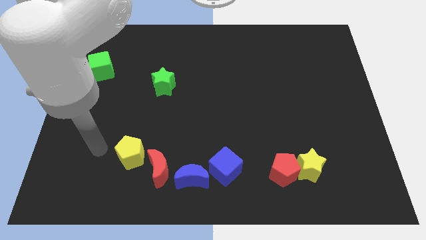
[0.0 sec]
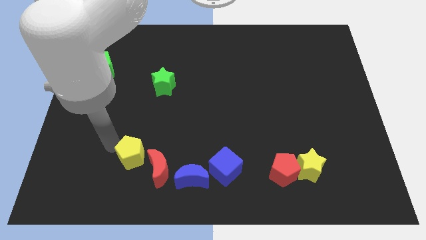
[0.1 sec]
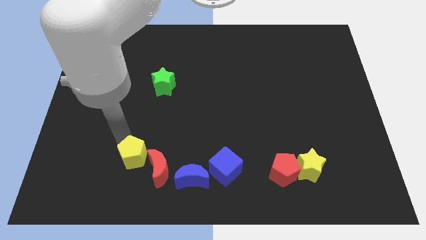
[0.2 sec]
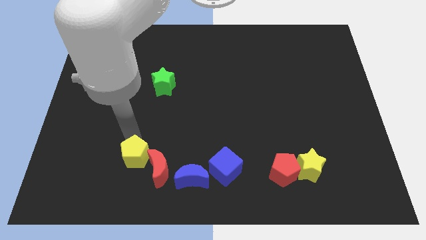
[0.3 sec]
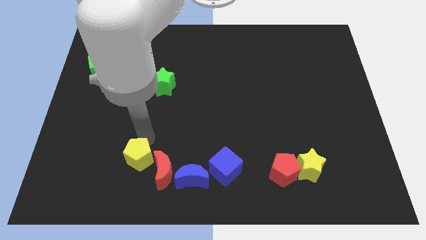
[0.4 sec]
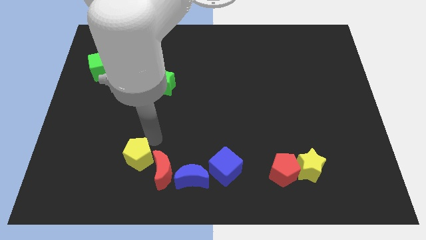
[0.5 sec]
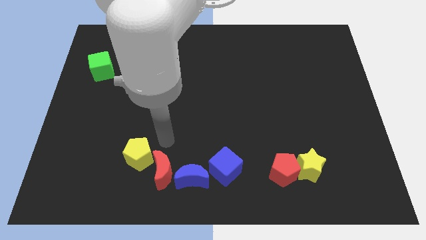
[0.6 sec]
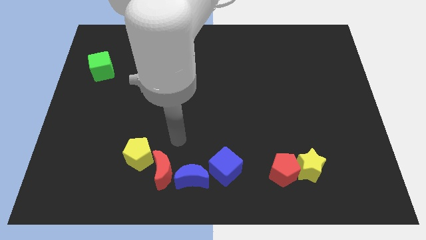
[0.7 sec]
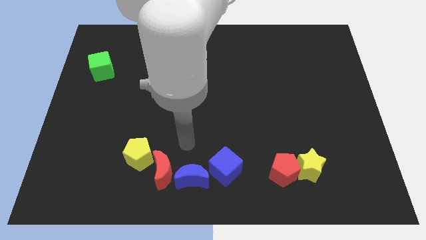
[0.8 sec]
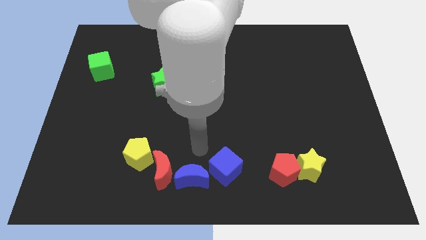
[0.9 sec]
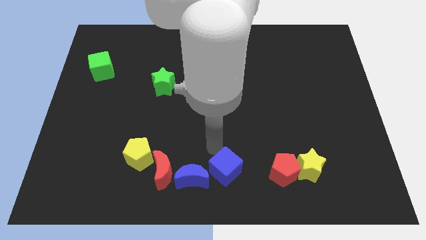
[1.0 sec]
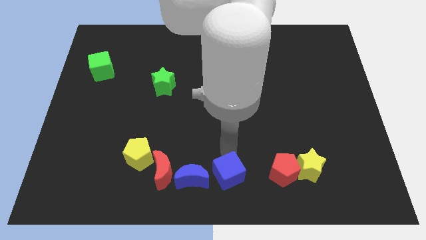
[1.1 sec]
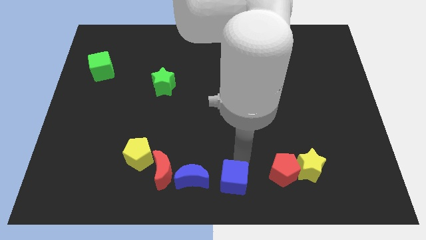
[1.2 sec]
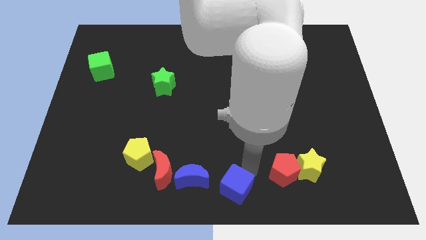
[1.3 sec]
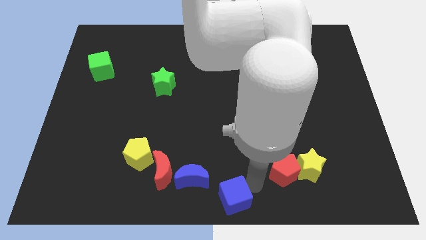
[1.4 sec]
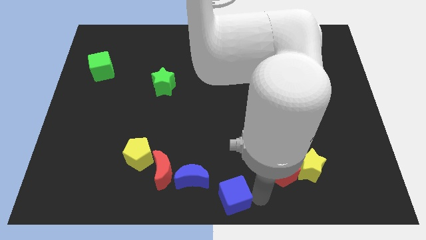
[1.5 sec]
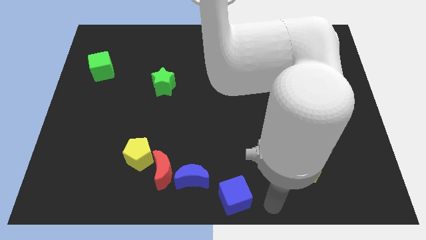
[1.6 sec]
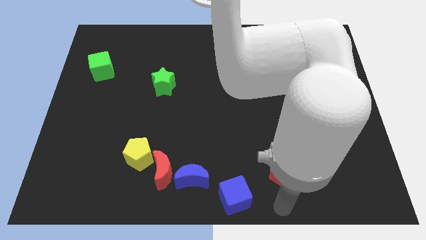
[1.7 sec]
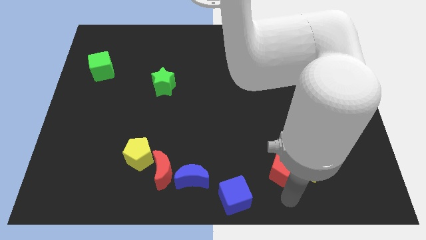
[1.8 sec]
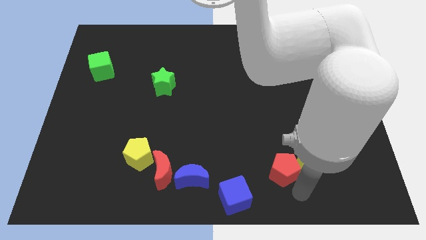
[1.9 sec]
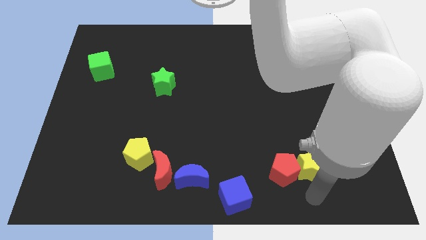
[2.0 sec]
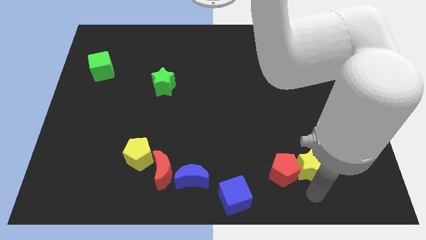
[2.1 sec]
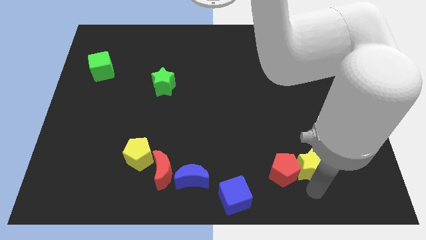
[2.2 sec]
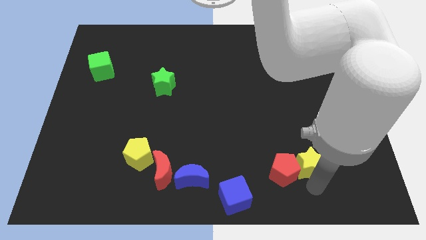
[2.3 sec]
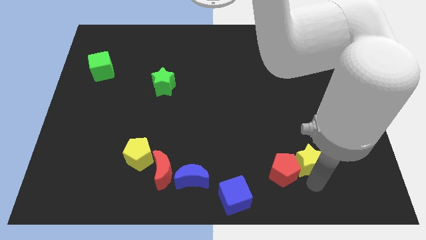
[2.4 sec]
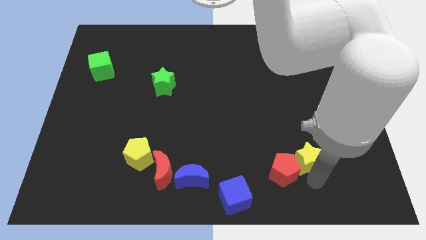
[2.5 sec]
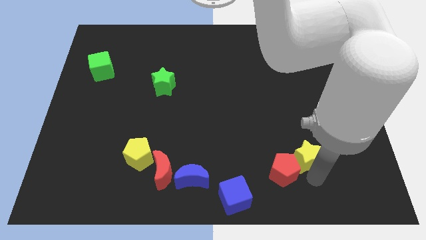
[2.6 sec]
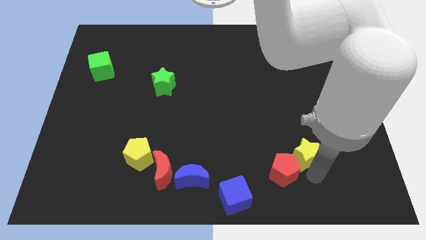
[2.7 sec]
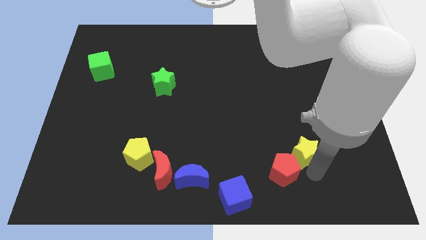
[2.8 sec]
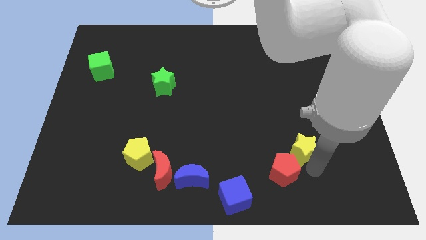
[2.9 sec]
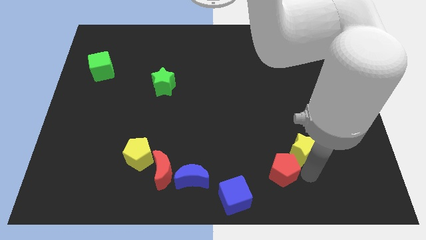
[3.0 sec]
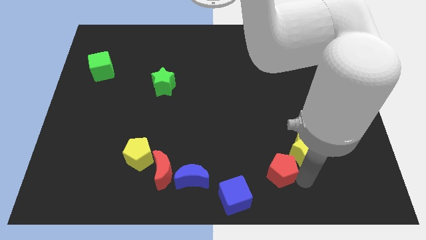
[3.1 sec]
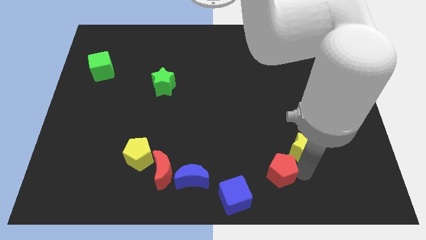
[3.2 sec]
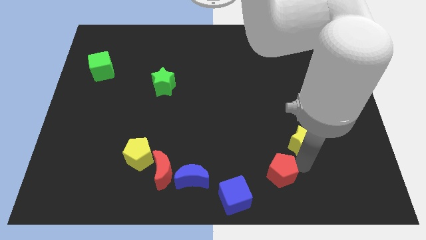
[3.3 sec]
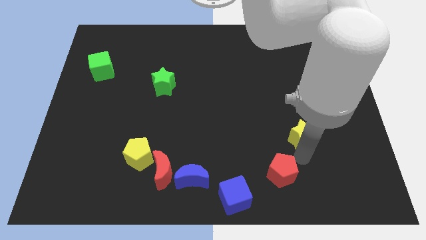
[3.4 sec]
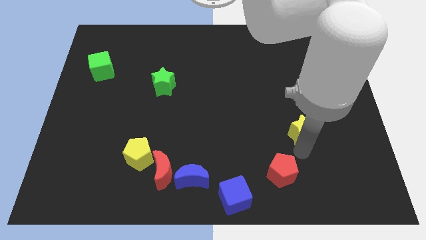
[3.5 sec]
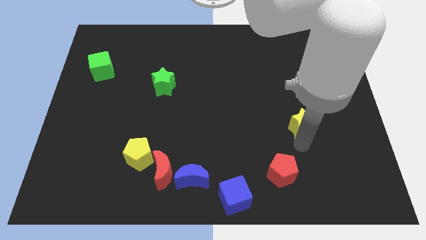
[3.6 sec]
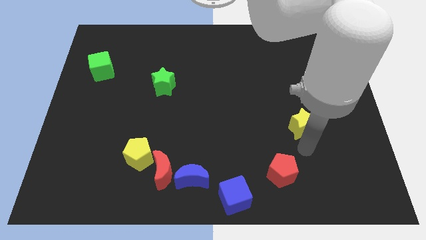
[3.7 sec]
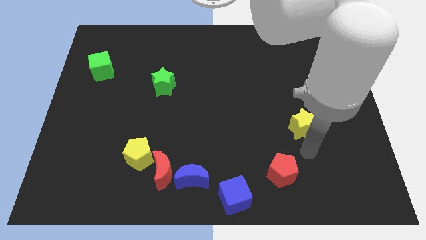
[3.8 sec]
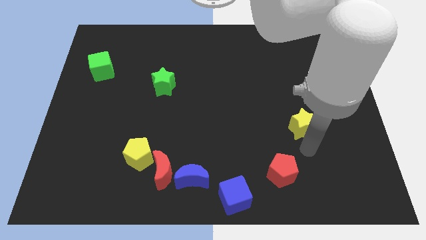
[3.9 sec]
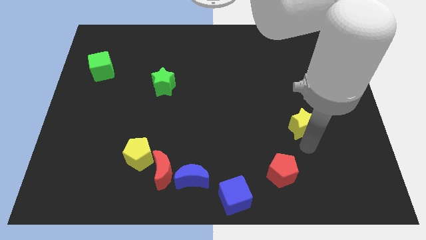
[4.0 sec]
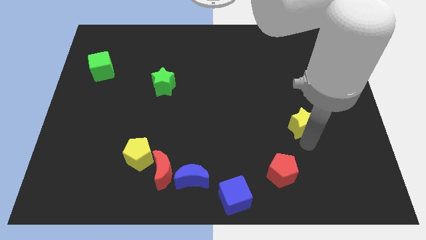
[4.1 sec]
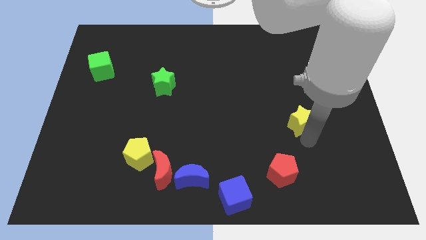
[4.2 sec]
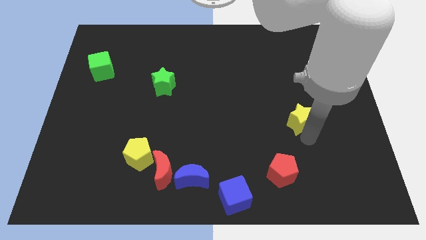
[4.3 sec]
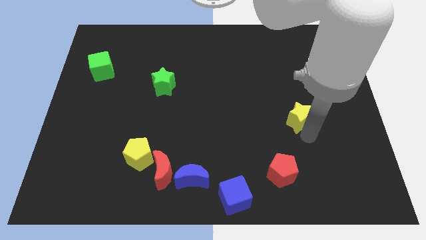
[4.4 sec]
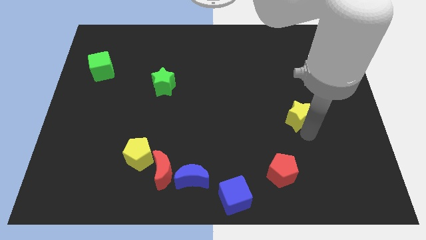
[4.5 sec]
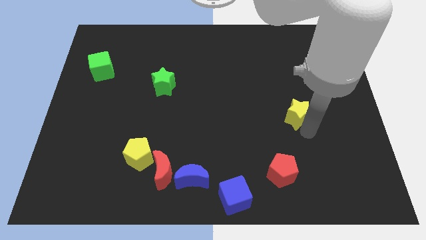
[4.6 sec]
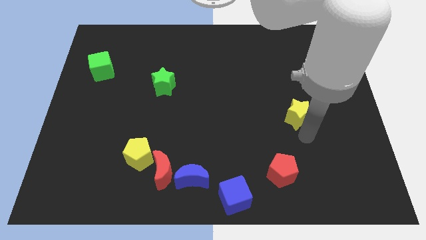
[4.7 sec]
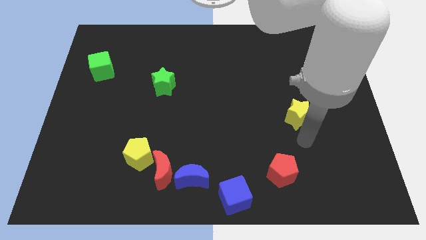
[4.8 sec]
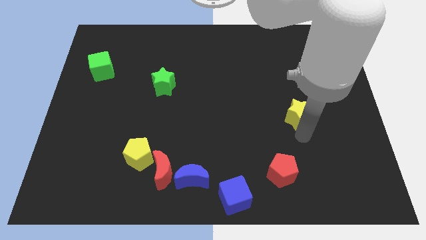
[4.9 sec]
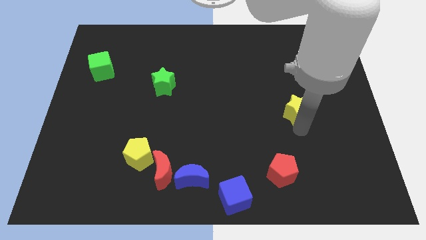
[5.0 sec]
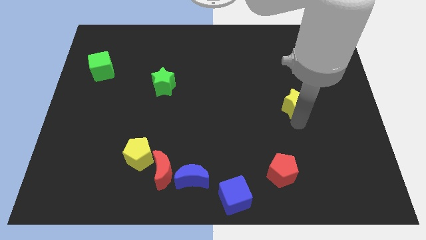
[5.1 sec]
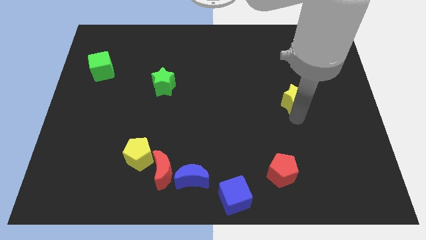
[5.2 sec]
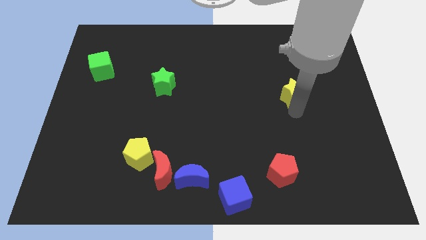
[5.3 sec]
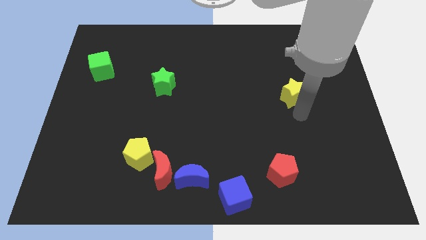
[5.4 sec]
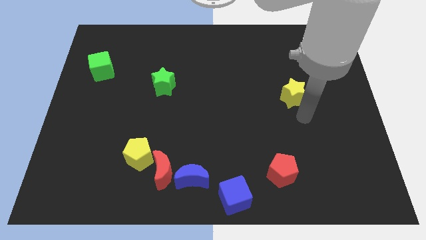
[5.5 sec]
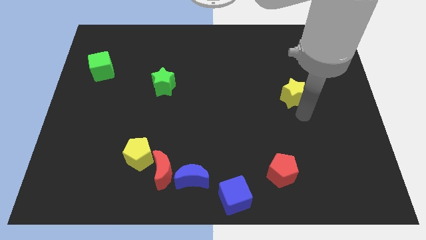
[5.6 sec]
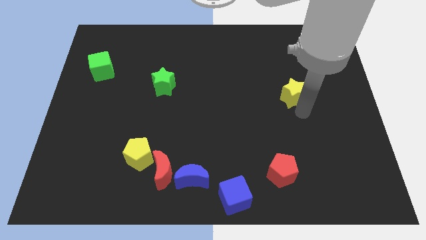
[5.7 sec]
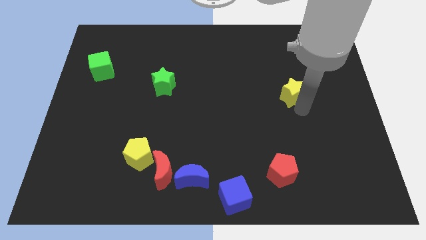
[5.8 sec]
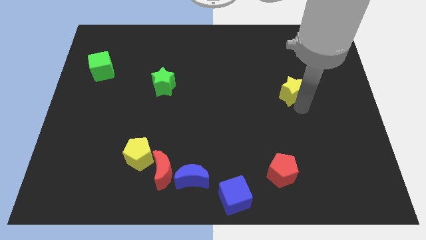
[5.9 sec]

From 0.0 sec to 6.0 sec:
move the yellow star upwards

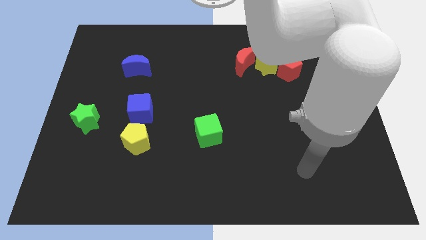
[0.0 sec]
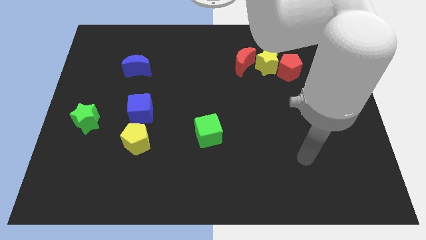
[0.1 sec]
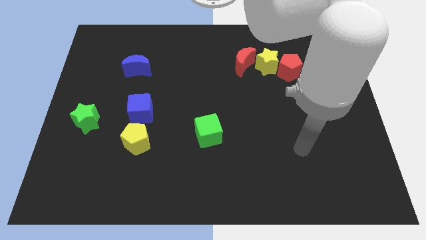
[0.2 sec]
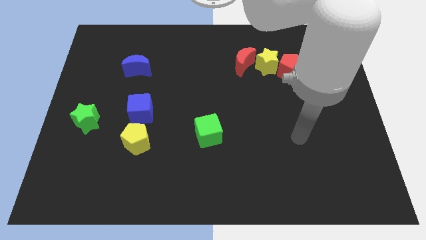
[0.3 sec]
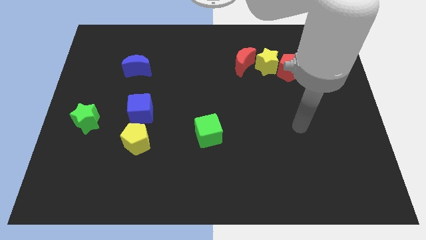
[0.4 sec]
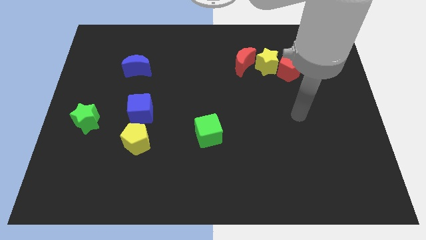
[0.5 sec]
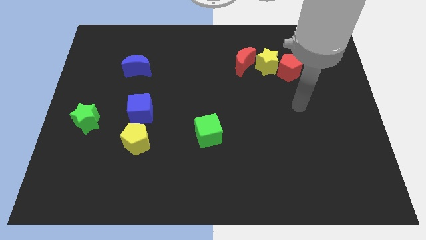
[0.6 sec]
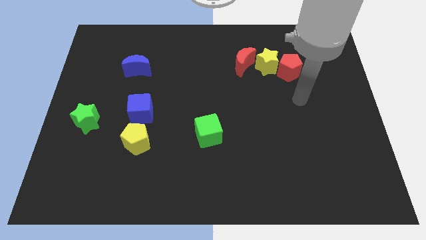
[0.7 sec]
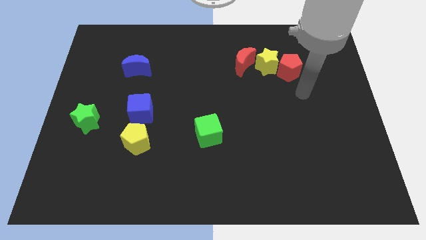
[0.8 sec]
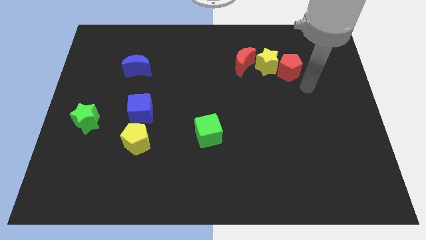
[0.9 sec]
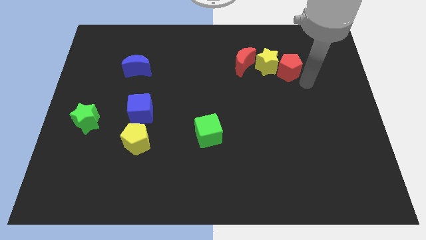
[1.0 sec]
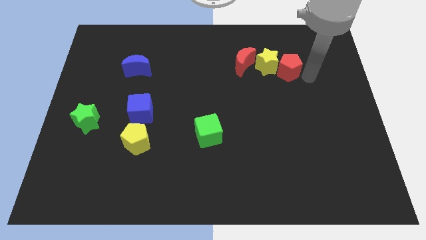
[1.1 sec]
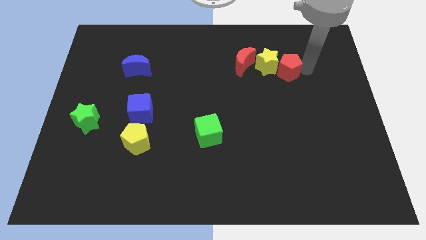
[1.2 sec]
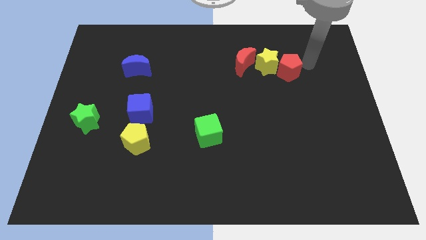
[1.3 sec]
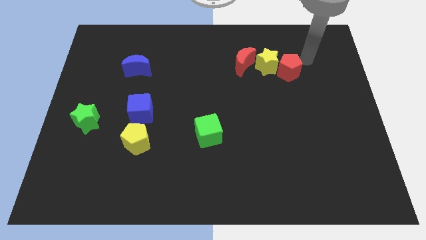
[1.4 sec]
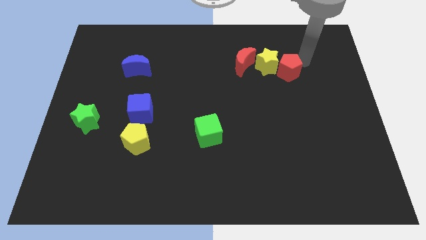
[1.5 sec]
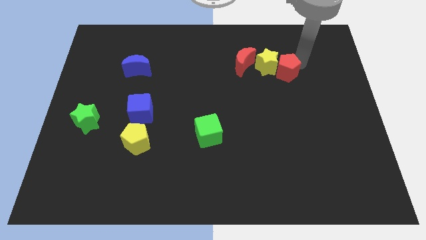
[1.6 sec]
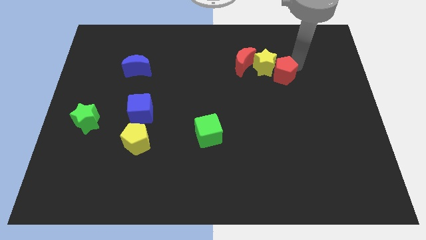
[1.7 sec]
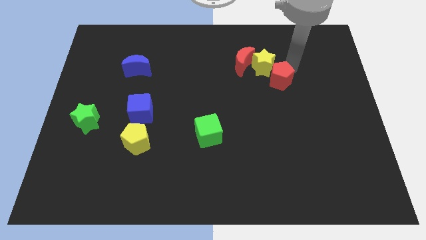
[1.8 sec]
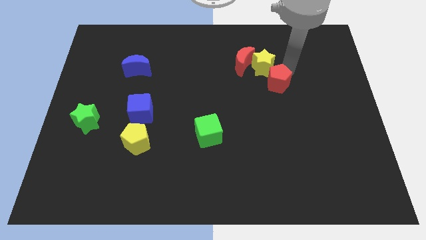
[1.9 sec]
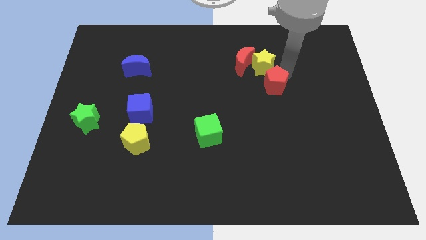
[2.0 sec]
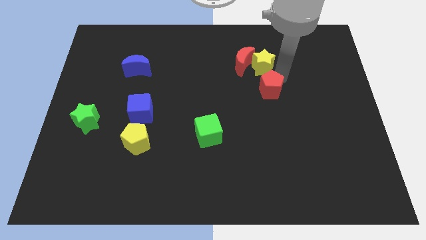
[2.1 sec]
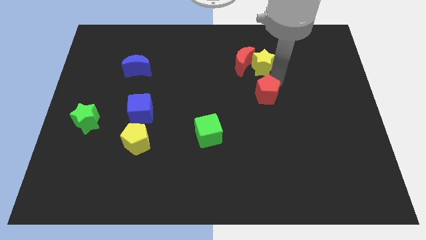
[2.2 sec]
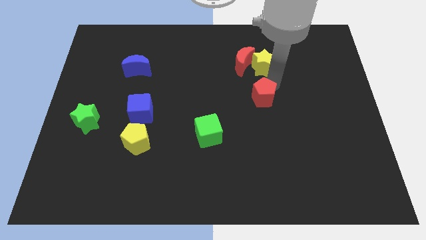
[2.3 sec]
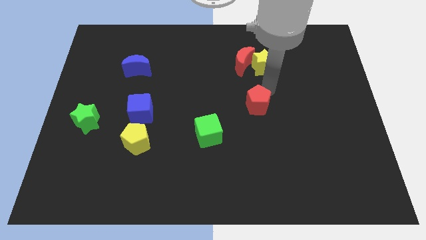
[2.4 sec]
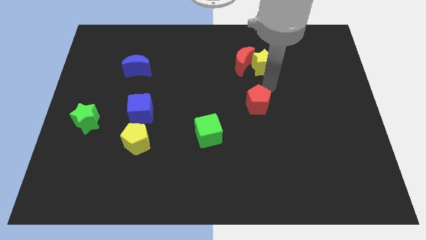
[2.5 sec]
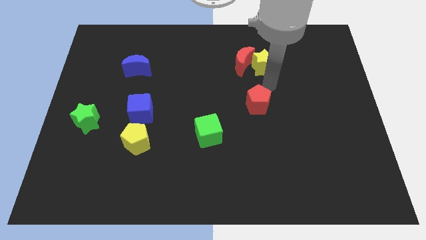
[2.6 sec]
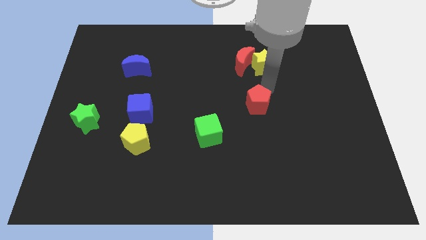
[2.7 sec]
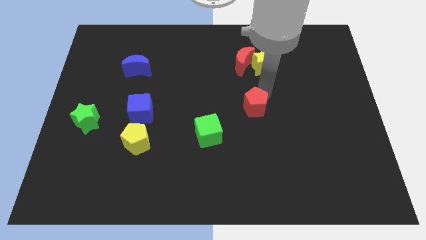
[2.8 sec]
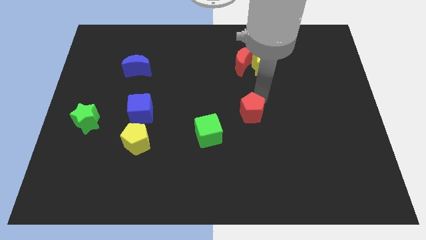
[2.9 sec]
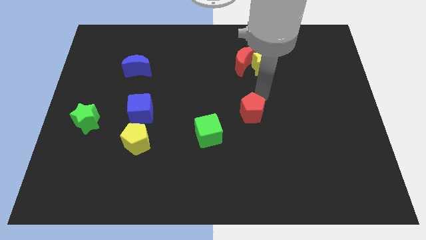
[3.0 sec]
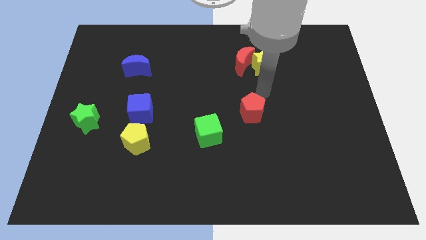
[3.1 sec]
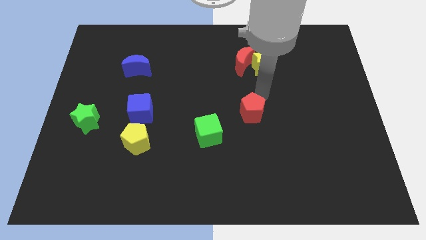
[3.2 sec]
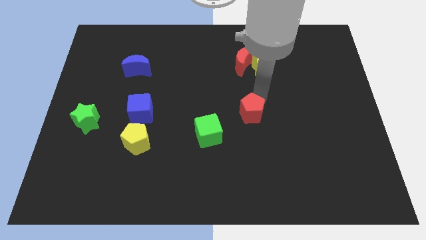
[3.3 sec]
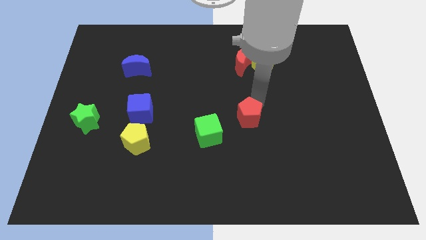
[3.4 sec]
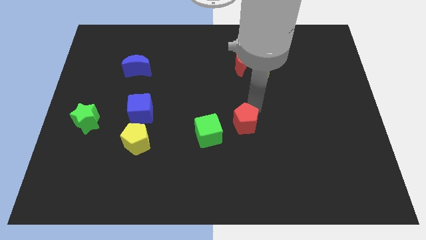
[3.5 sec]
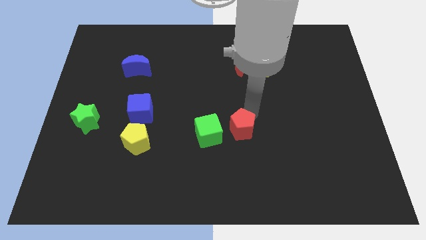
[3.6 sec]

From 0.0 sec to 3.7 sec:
push the red pentagon down and then to the left
